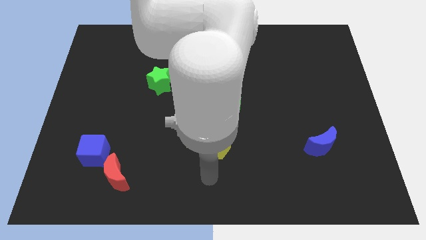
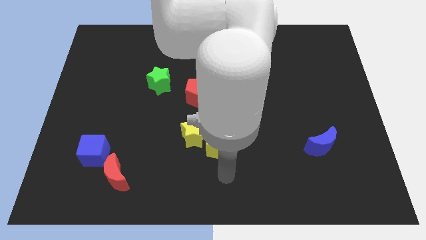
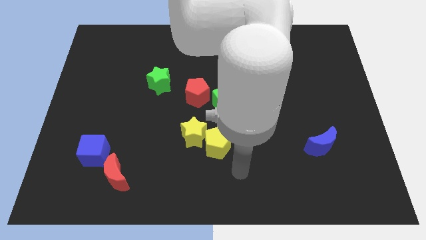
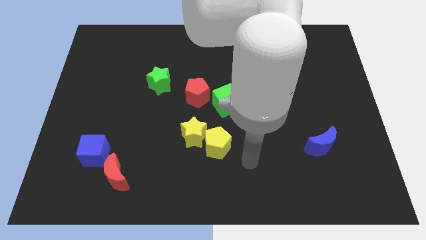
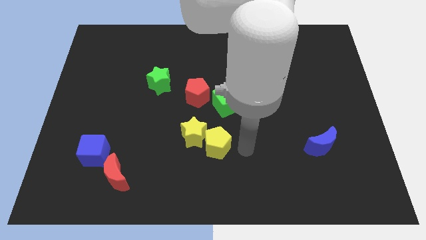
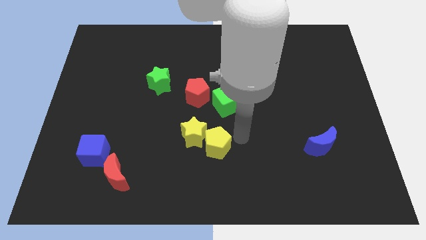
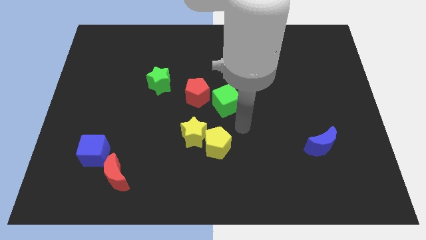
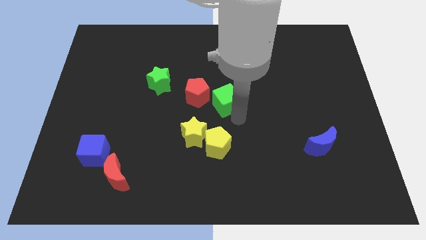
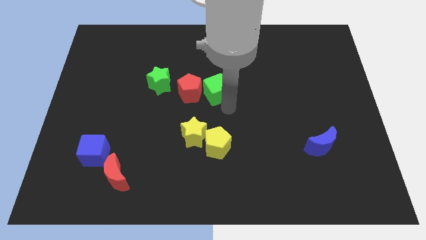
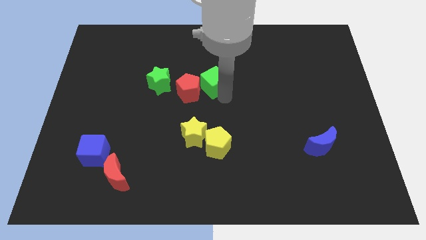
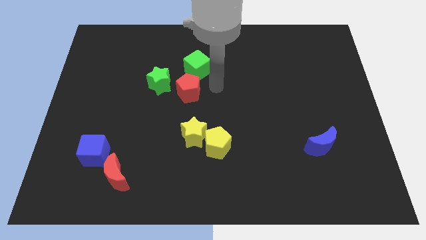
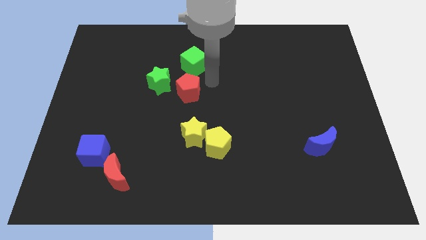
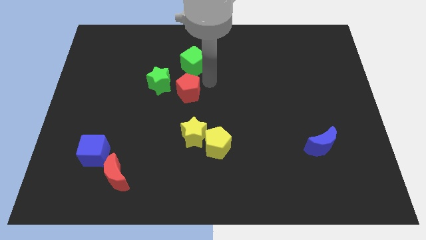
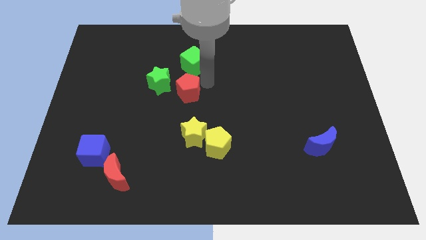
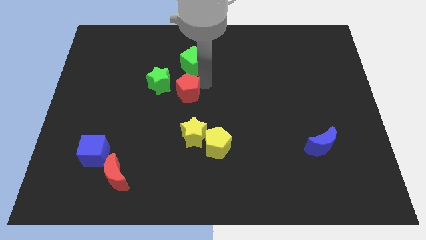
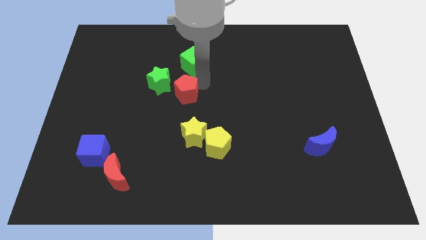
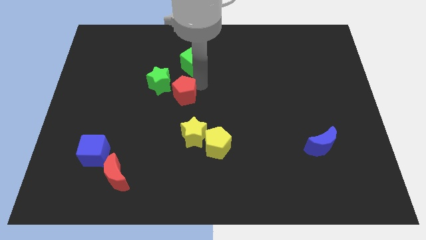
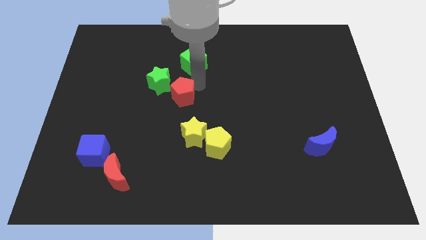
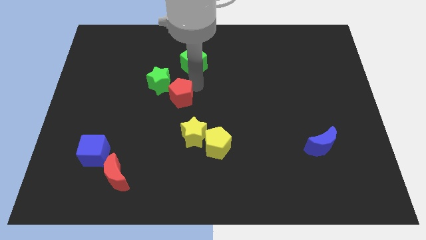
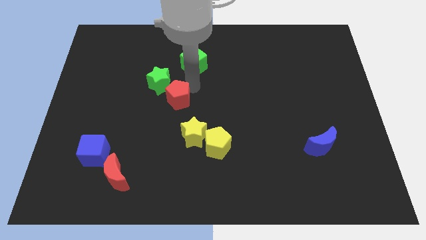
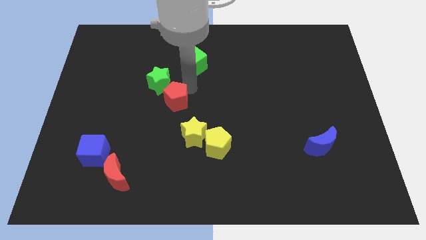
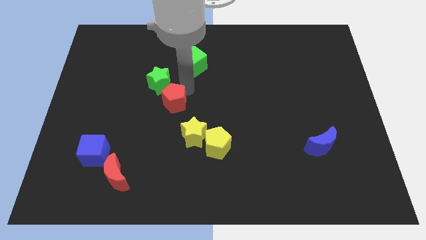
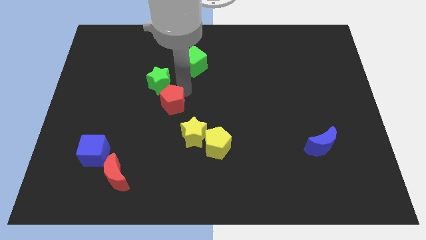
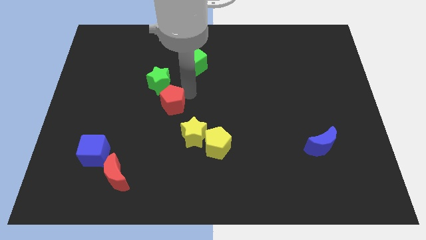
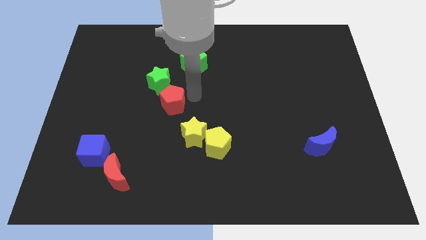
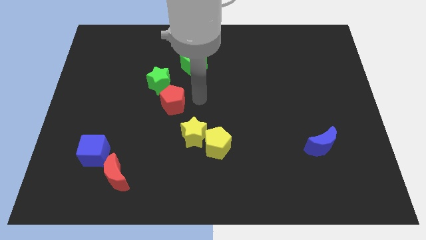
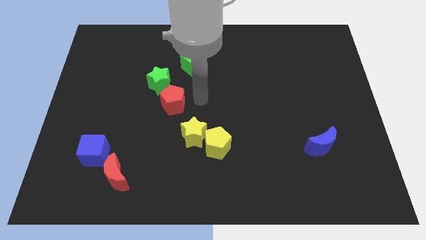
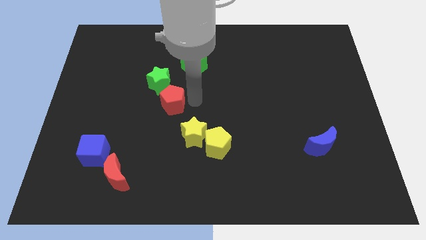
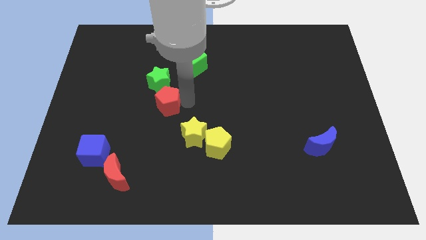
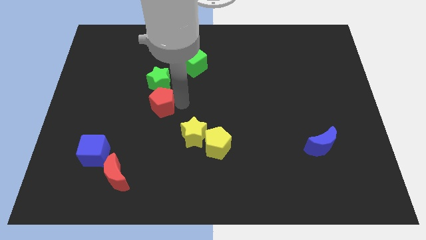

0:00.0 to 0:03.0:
slightly push the red pentagon to the left

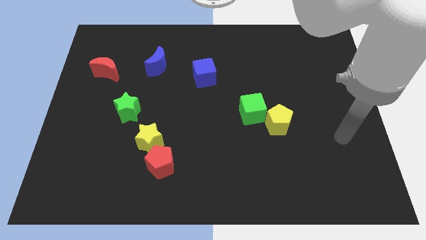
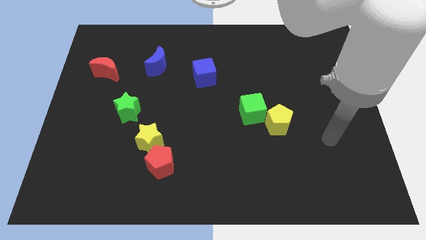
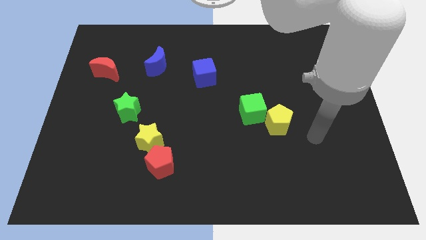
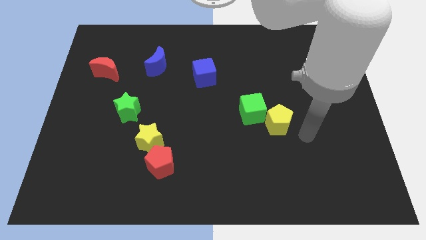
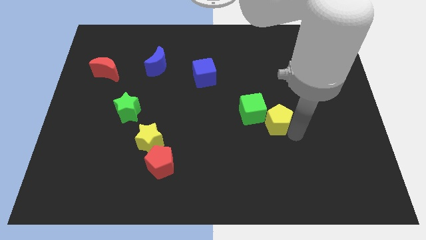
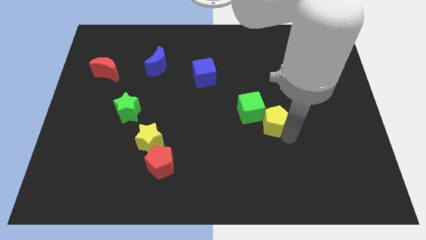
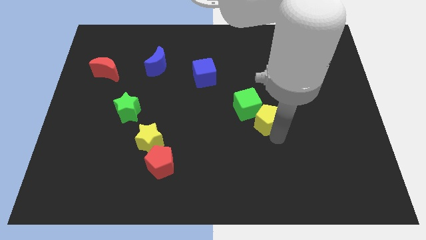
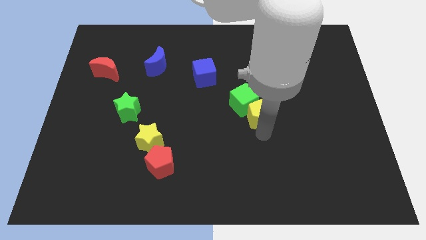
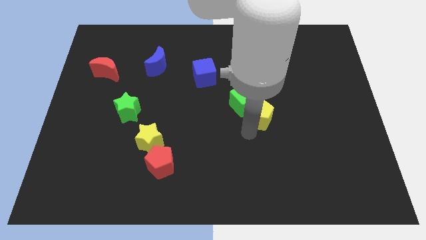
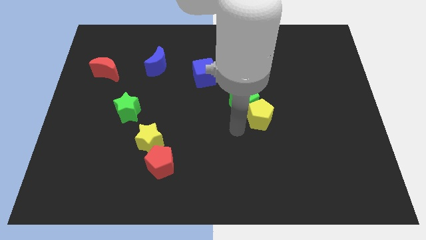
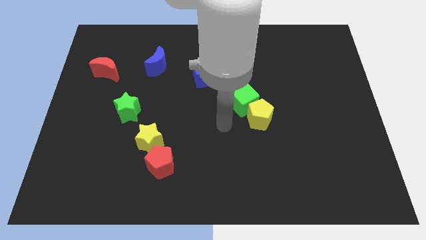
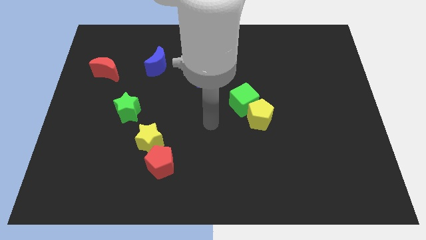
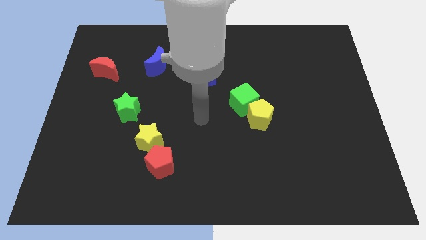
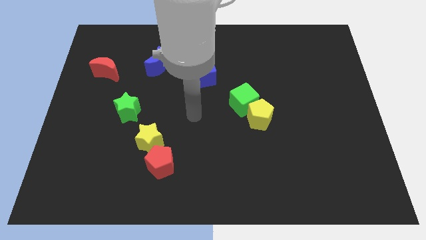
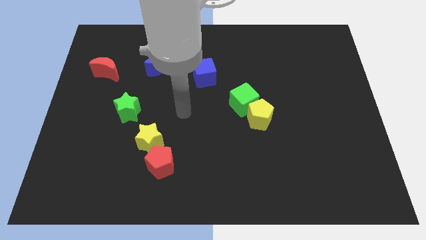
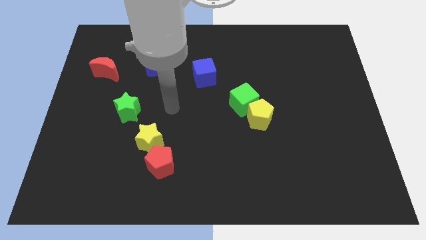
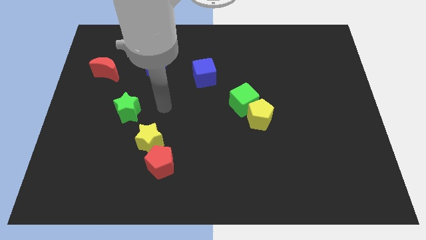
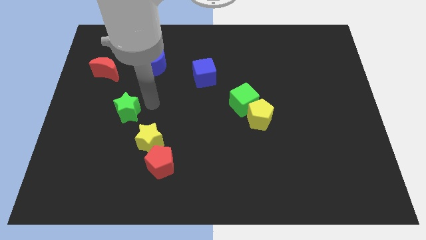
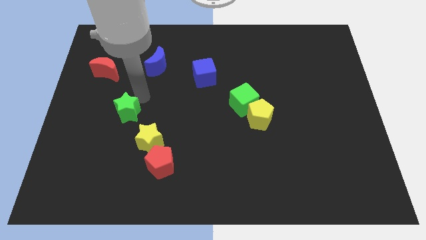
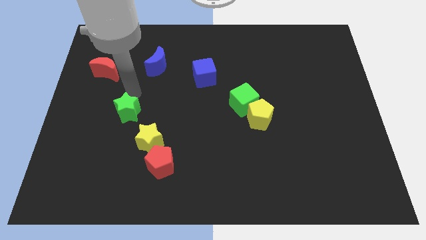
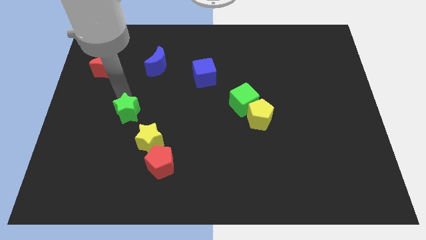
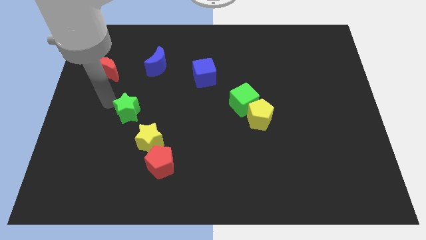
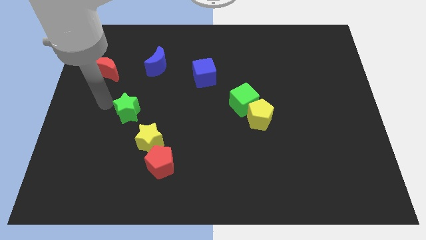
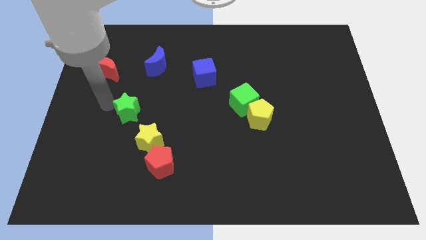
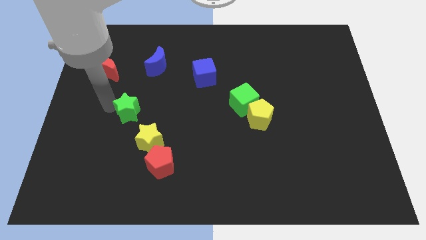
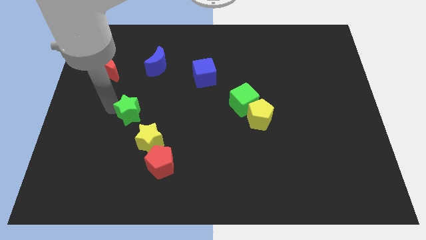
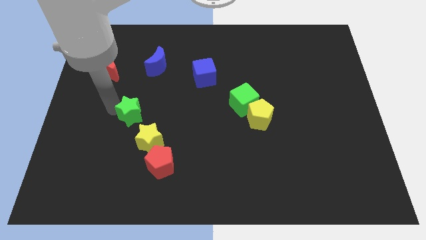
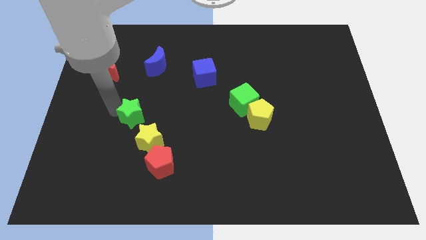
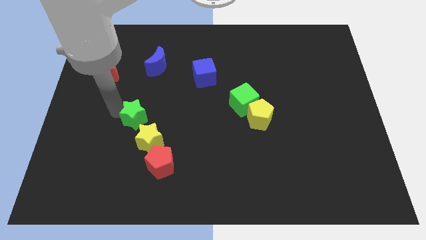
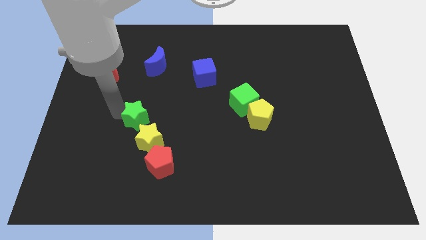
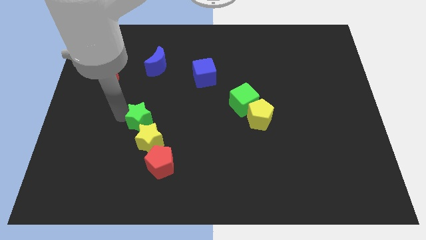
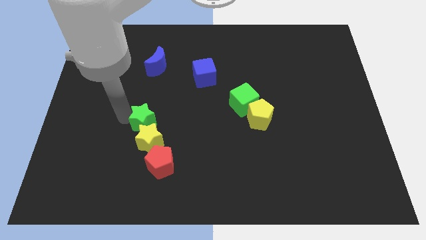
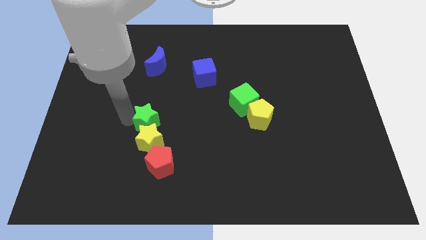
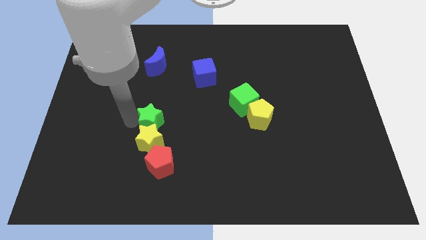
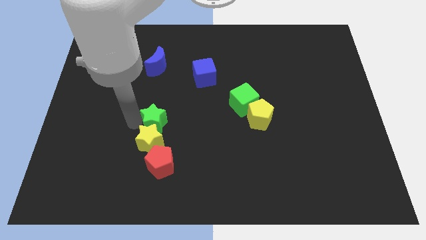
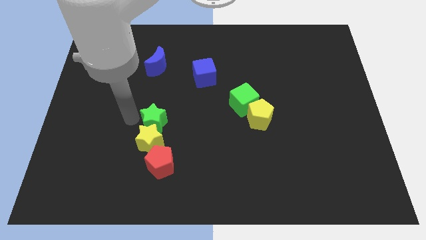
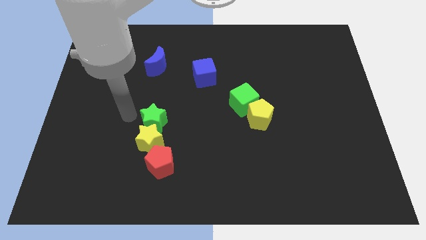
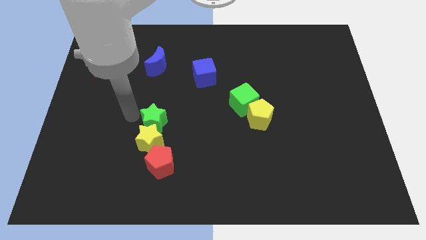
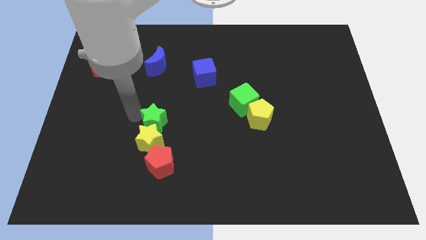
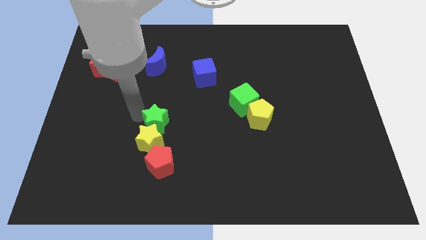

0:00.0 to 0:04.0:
slightly move the green star downwards and to the right diagonally

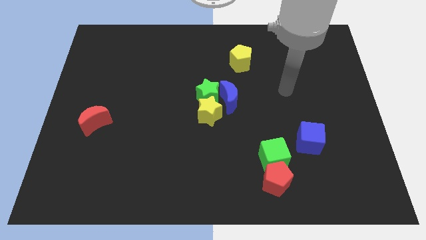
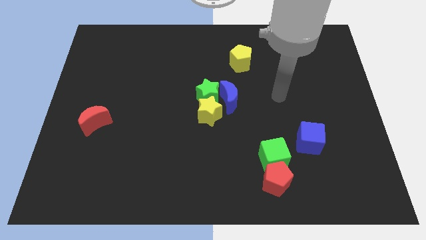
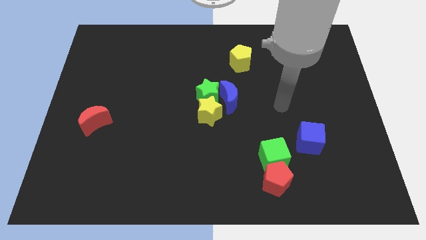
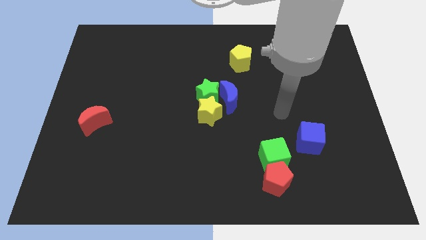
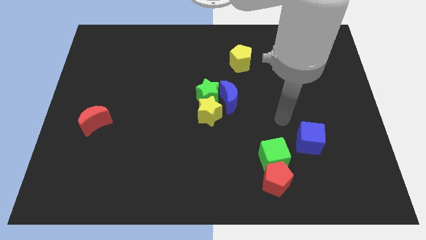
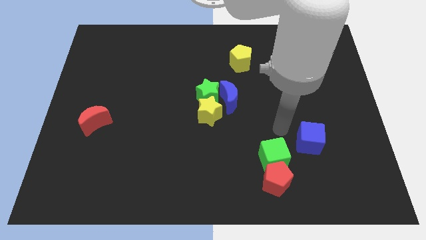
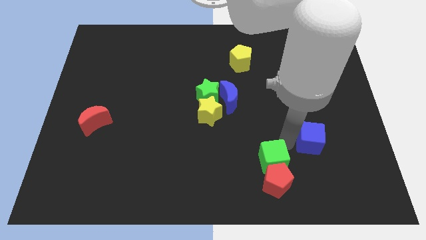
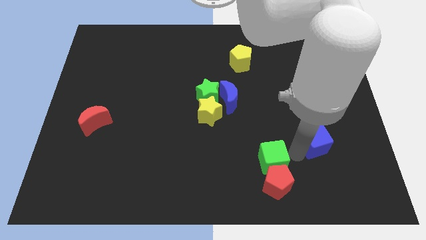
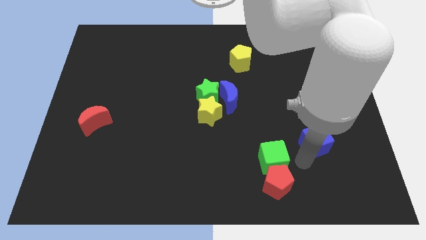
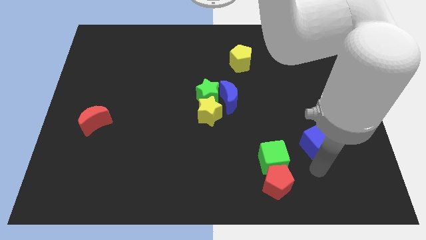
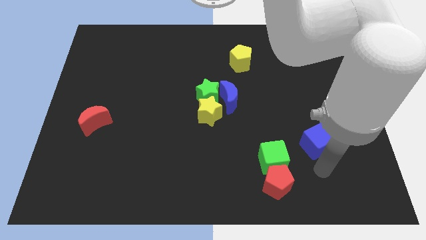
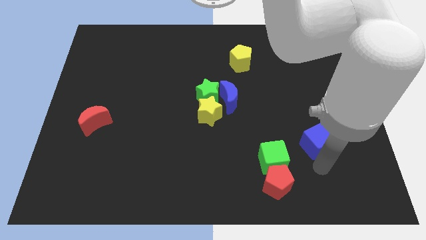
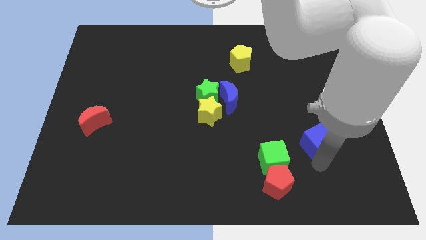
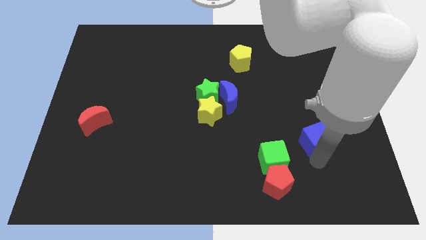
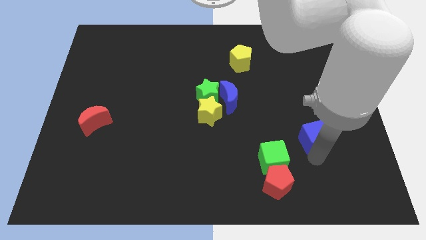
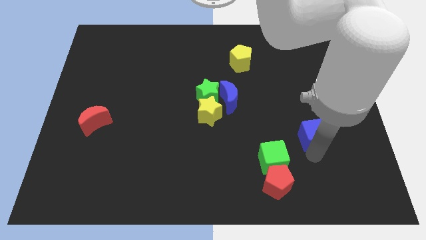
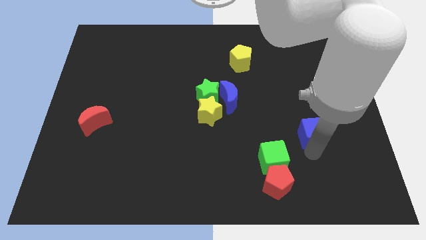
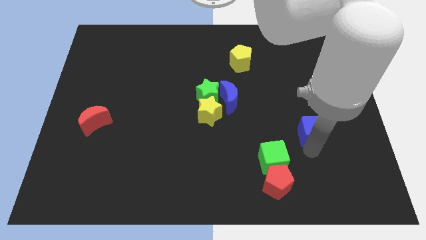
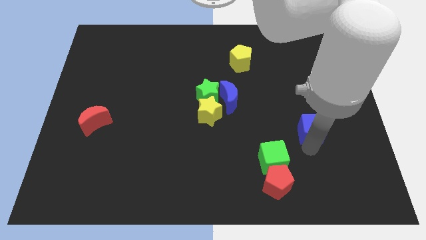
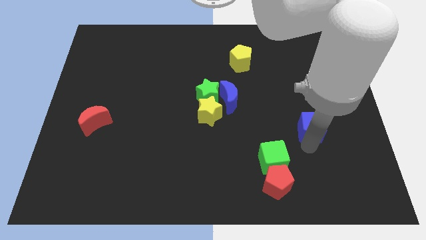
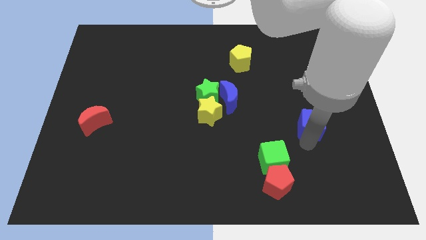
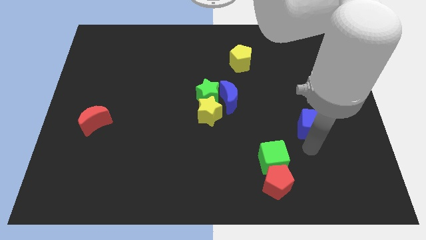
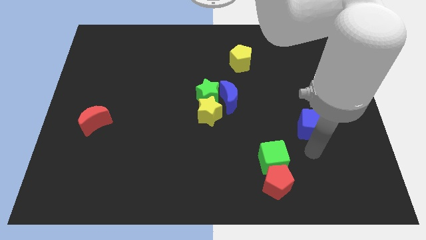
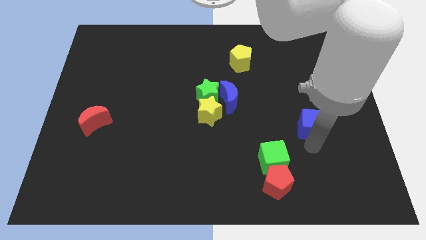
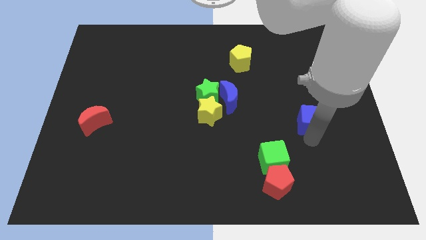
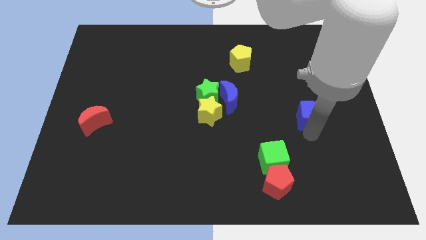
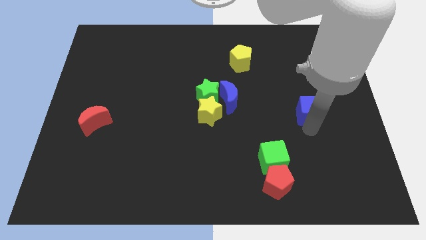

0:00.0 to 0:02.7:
slide the blue cube upwards somewhat
